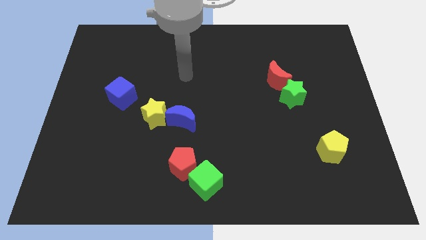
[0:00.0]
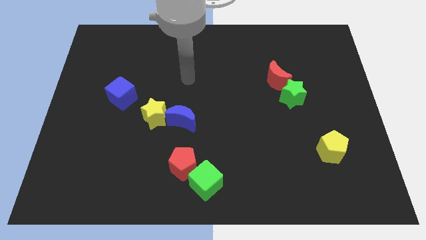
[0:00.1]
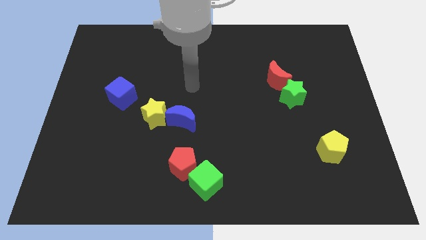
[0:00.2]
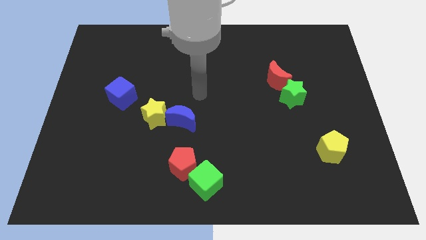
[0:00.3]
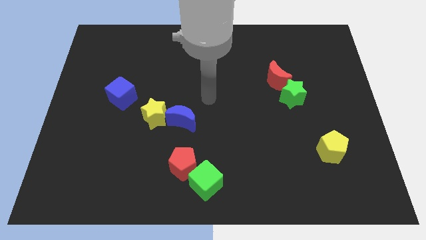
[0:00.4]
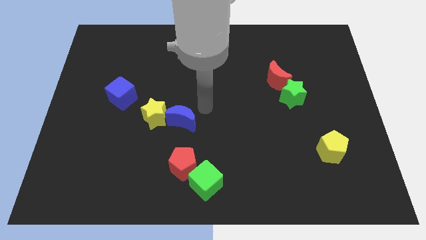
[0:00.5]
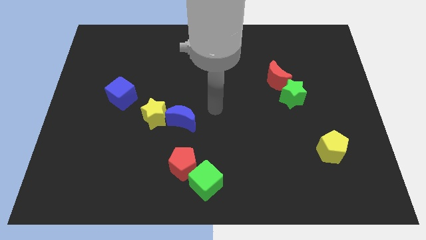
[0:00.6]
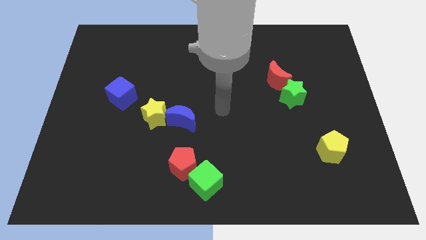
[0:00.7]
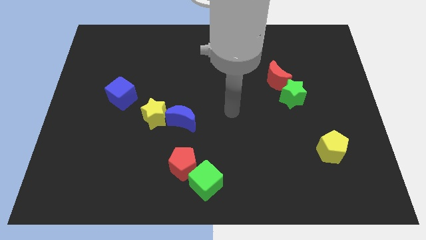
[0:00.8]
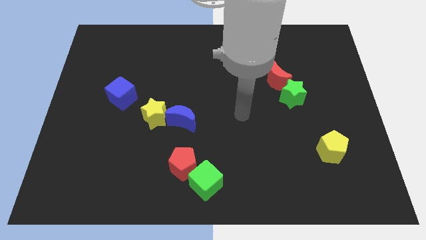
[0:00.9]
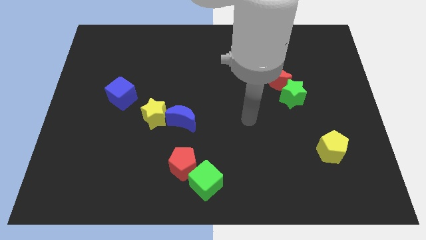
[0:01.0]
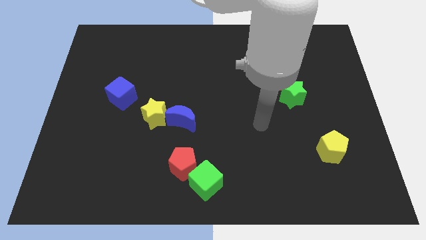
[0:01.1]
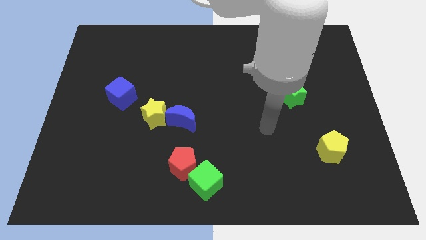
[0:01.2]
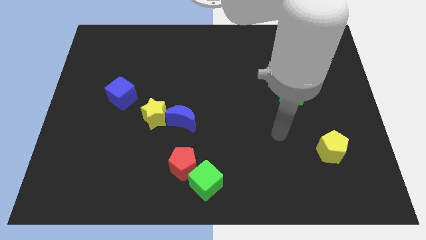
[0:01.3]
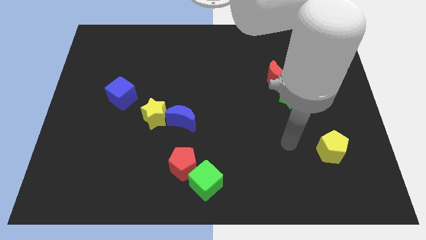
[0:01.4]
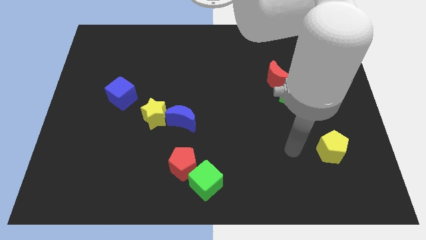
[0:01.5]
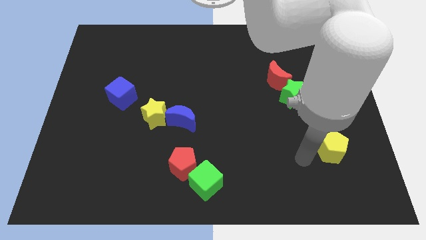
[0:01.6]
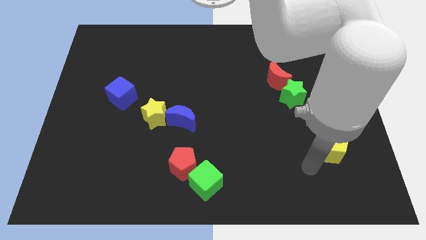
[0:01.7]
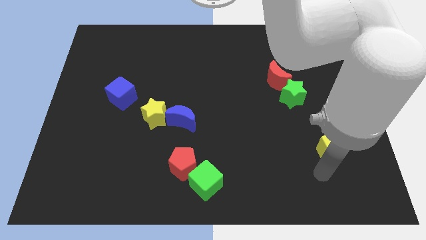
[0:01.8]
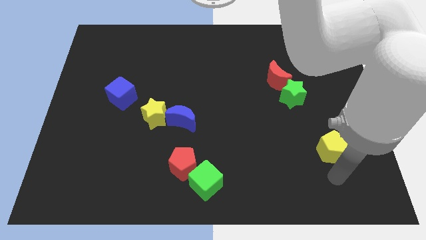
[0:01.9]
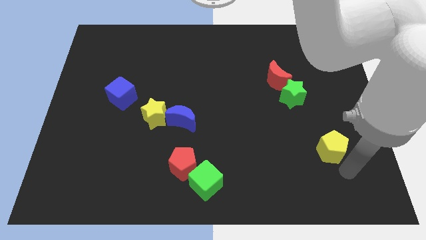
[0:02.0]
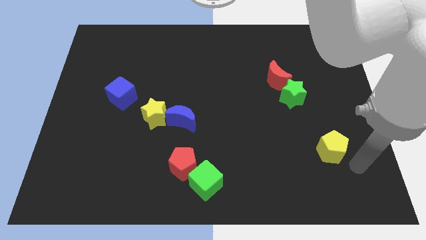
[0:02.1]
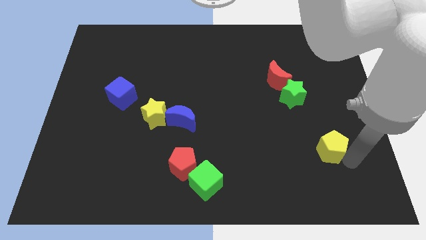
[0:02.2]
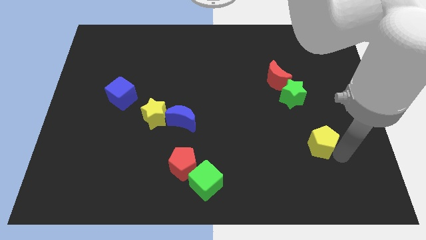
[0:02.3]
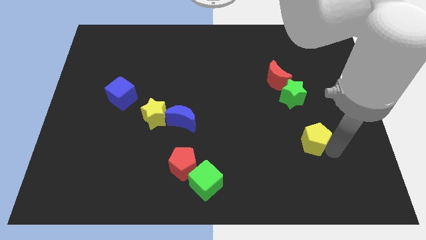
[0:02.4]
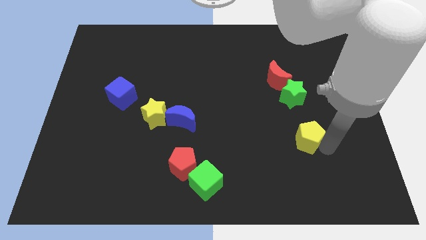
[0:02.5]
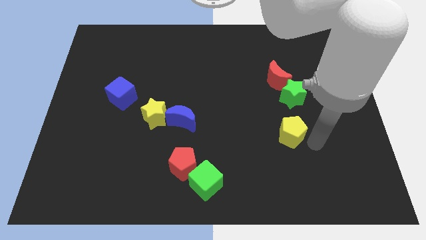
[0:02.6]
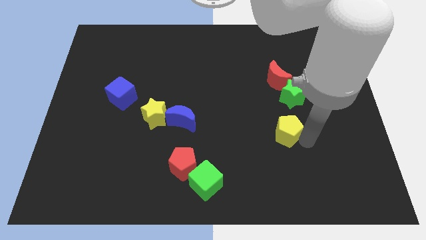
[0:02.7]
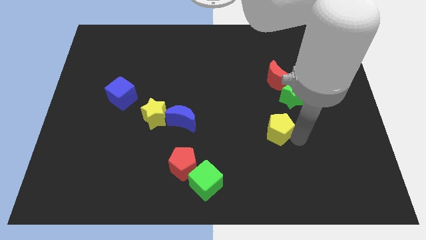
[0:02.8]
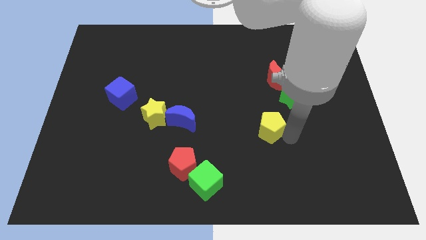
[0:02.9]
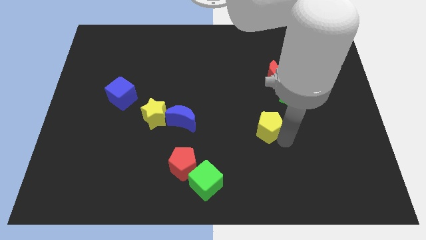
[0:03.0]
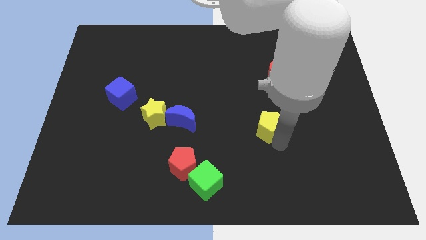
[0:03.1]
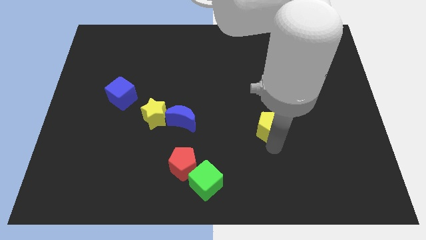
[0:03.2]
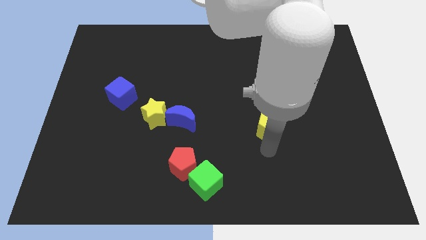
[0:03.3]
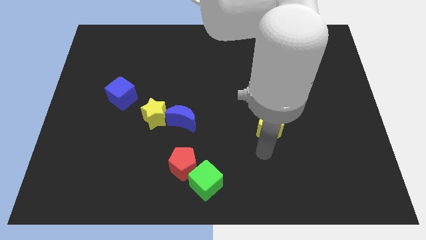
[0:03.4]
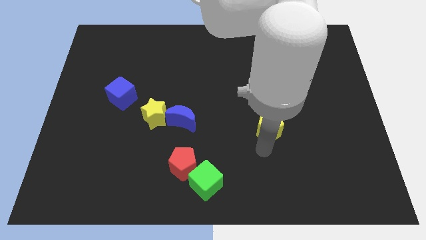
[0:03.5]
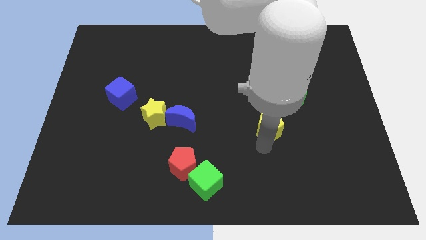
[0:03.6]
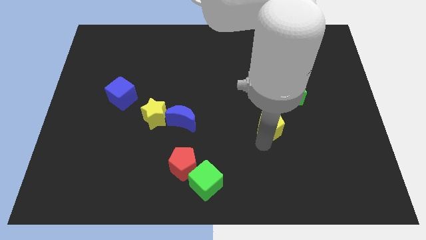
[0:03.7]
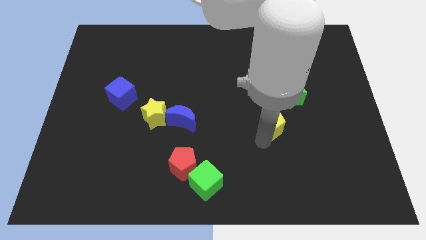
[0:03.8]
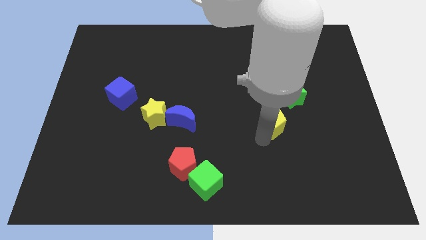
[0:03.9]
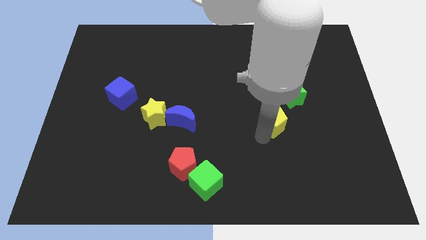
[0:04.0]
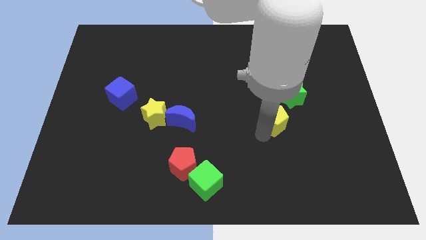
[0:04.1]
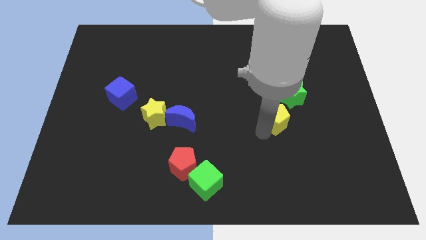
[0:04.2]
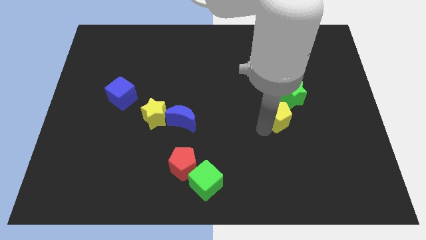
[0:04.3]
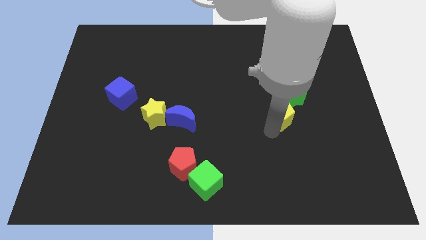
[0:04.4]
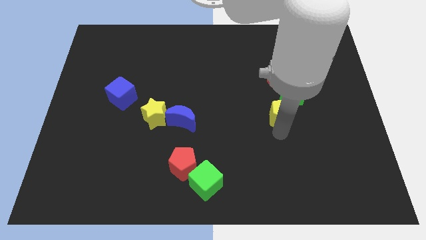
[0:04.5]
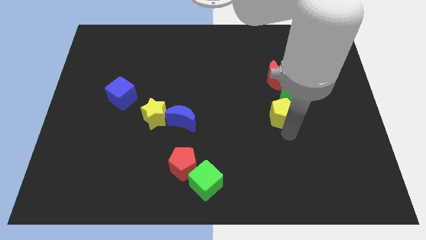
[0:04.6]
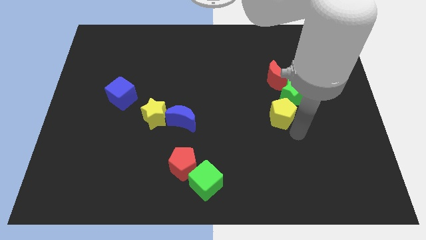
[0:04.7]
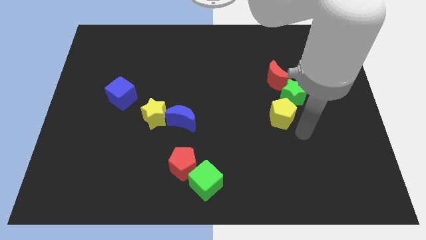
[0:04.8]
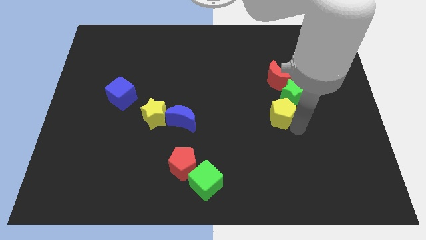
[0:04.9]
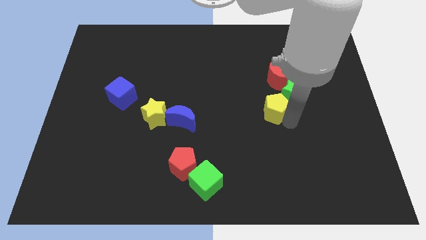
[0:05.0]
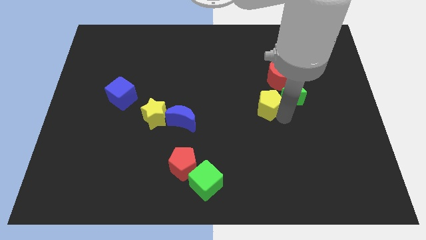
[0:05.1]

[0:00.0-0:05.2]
put the yellow pentagon diagonally down and to the left of the red moon

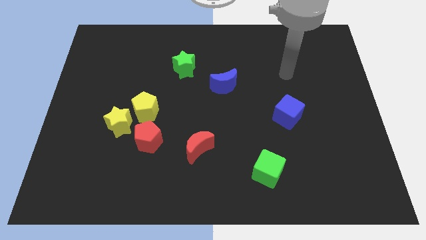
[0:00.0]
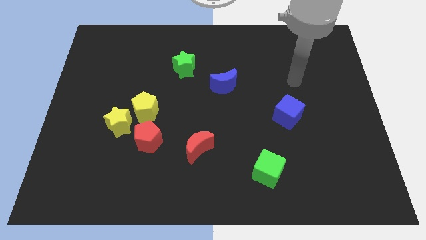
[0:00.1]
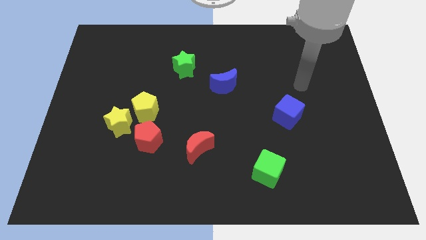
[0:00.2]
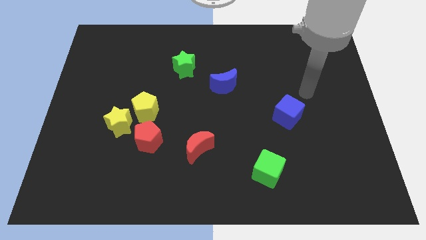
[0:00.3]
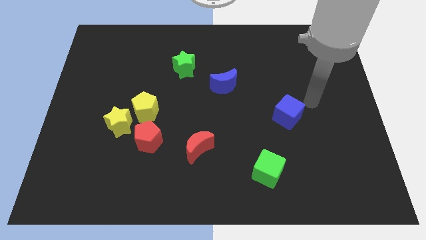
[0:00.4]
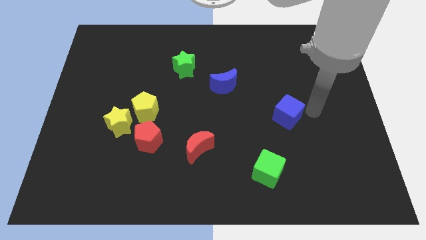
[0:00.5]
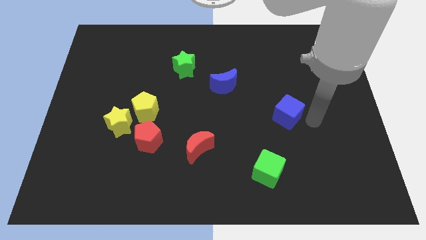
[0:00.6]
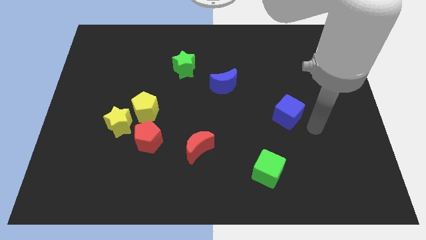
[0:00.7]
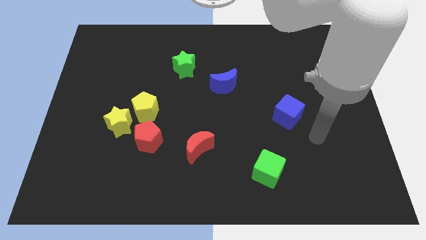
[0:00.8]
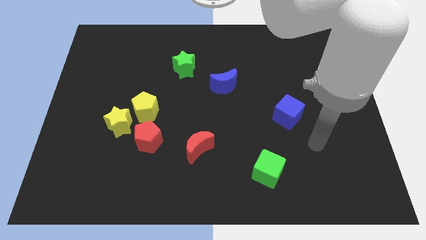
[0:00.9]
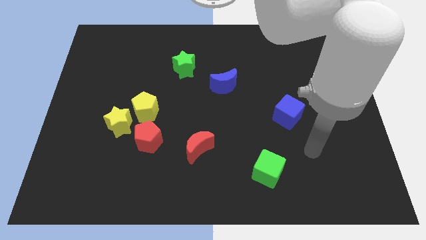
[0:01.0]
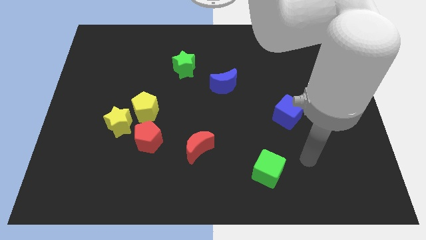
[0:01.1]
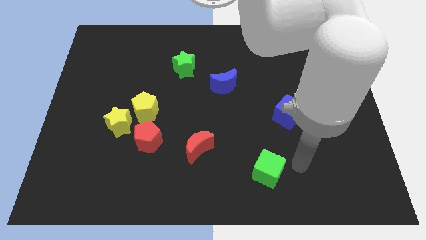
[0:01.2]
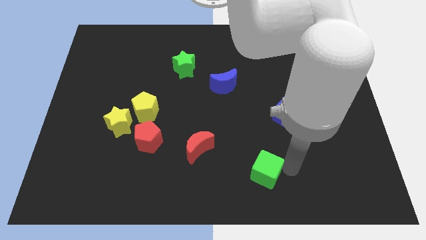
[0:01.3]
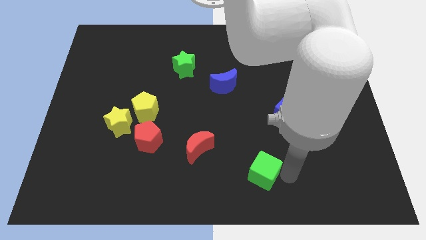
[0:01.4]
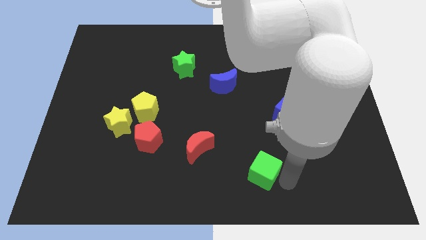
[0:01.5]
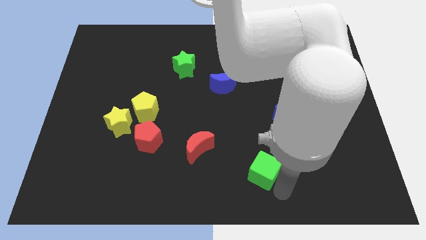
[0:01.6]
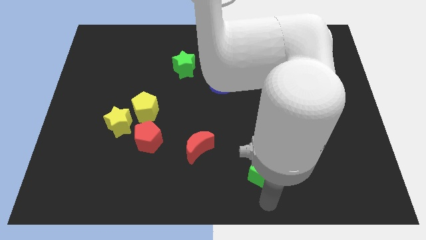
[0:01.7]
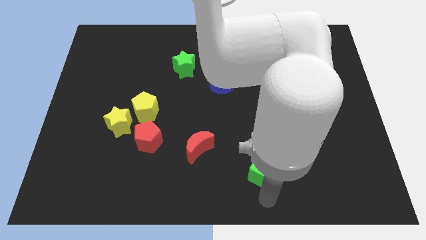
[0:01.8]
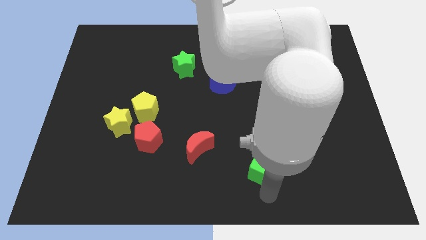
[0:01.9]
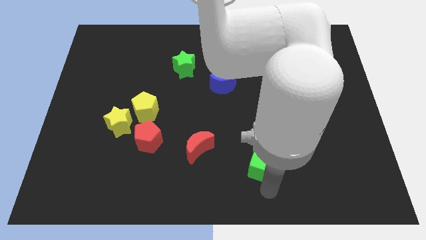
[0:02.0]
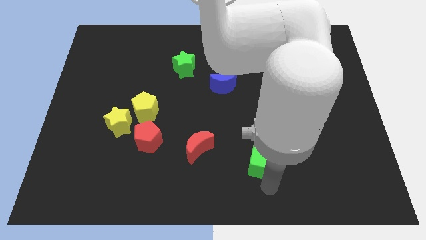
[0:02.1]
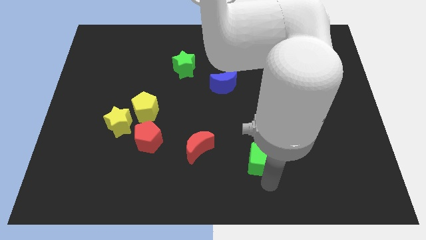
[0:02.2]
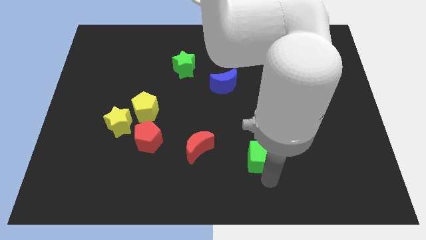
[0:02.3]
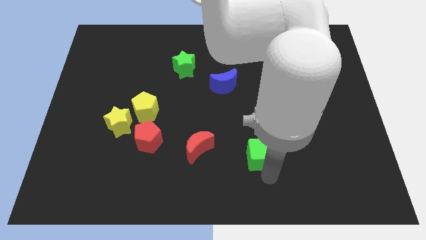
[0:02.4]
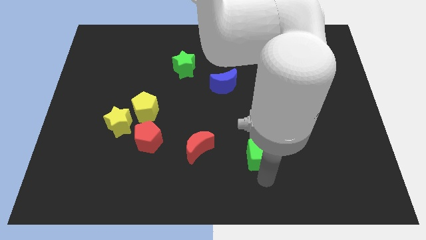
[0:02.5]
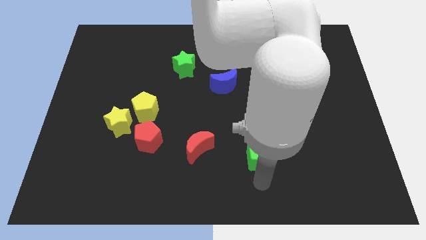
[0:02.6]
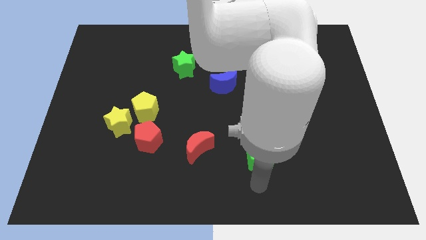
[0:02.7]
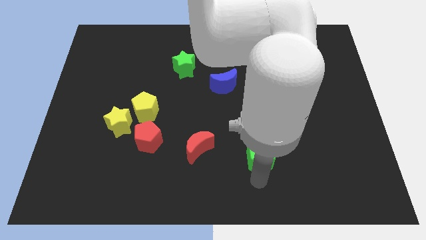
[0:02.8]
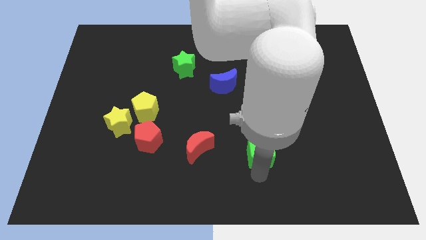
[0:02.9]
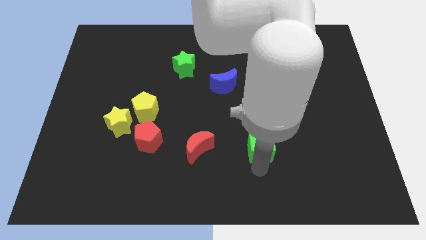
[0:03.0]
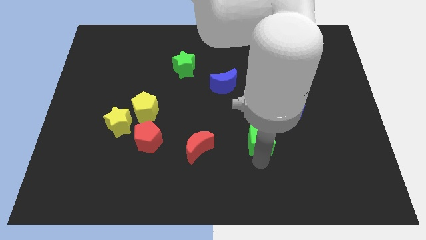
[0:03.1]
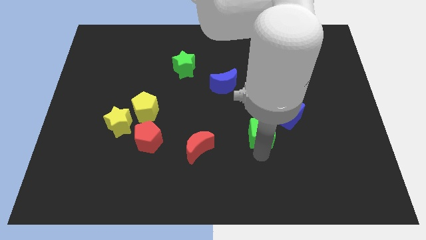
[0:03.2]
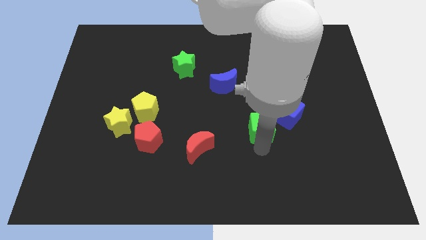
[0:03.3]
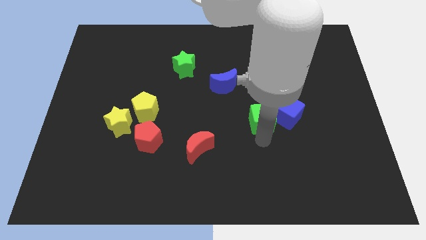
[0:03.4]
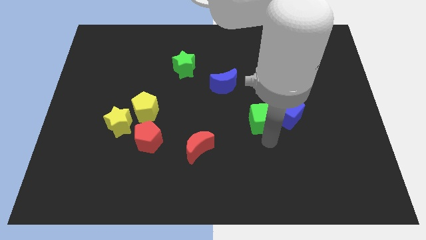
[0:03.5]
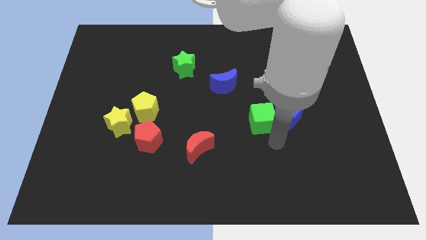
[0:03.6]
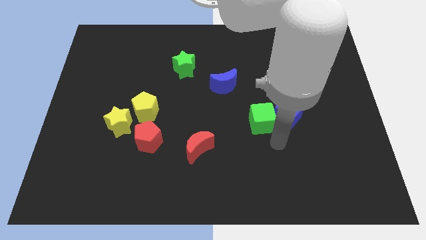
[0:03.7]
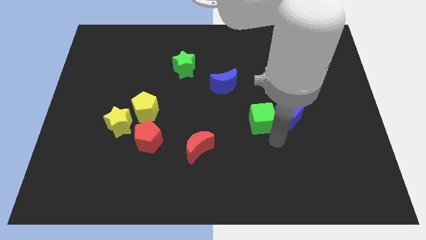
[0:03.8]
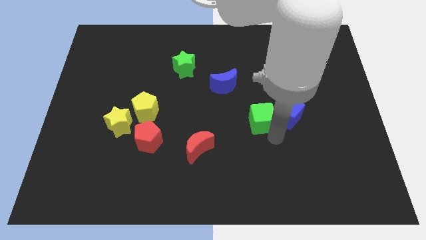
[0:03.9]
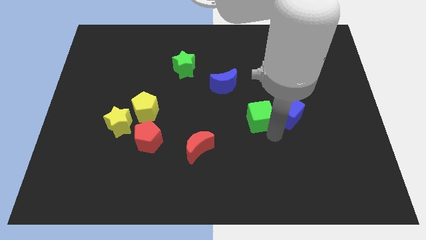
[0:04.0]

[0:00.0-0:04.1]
put the green cube to the bottom right side of the blue moon
